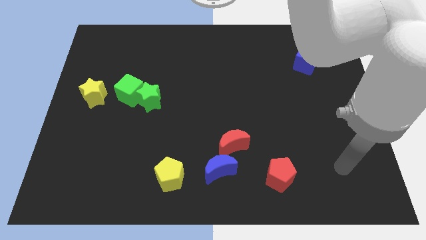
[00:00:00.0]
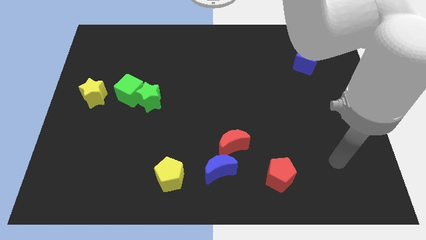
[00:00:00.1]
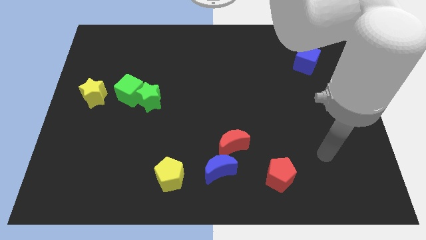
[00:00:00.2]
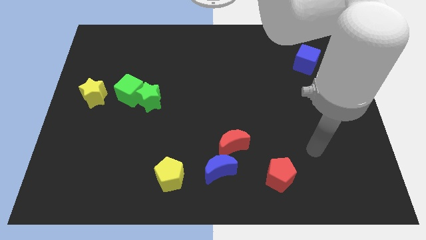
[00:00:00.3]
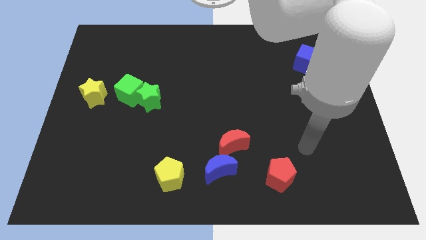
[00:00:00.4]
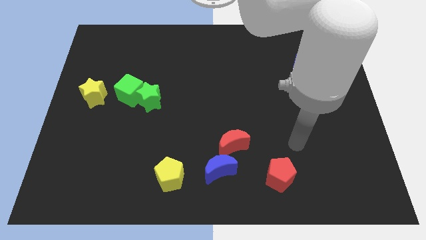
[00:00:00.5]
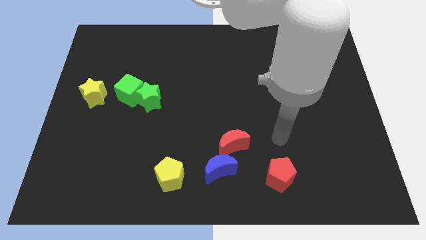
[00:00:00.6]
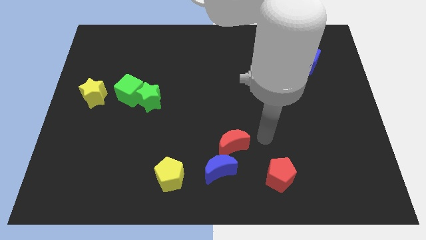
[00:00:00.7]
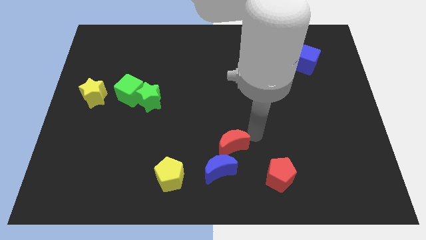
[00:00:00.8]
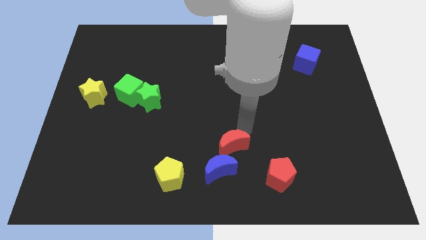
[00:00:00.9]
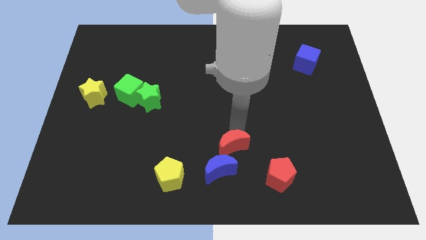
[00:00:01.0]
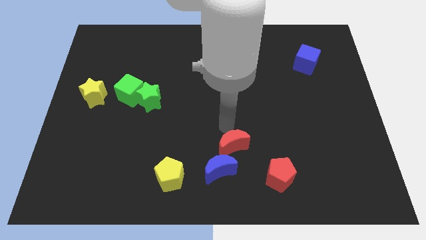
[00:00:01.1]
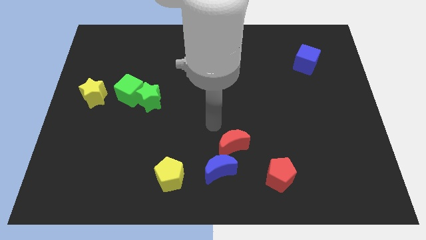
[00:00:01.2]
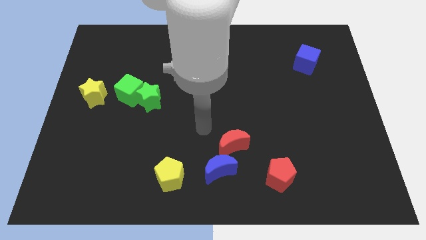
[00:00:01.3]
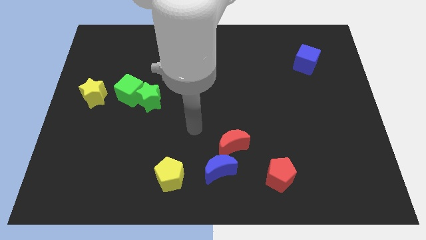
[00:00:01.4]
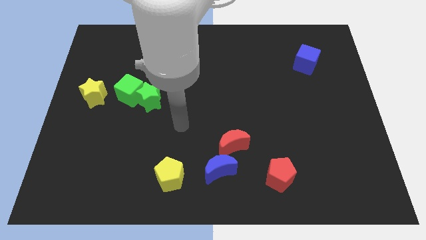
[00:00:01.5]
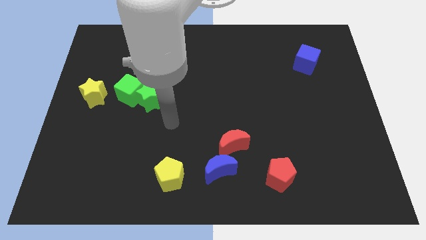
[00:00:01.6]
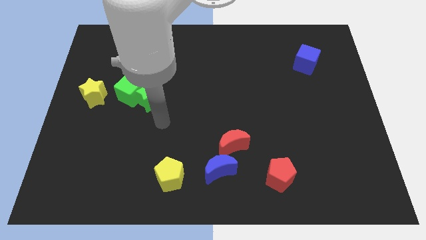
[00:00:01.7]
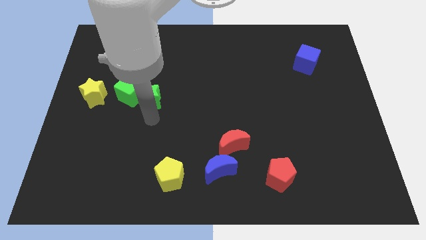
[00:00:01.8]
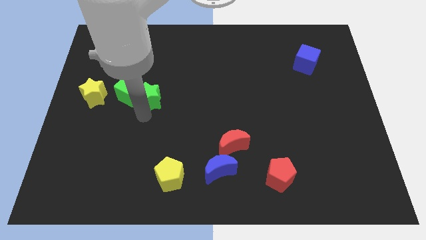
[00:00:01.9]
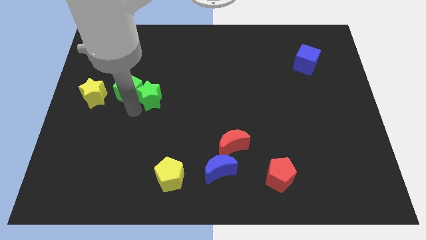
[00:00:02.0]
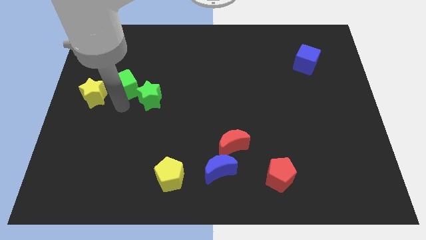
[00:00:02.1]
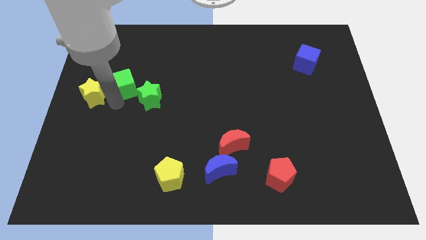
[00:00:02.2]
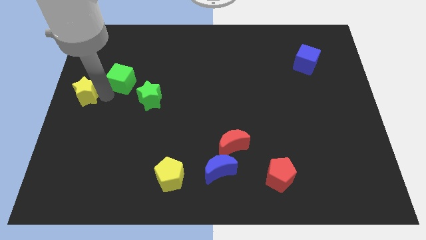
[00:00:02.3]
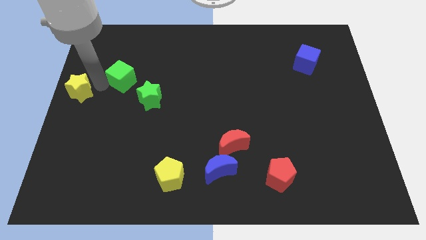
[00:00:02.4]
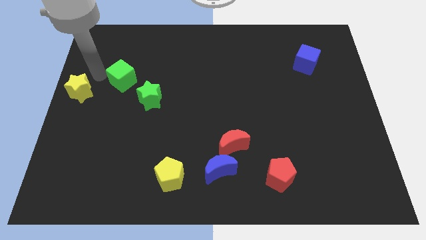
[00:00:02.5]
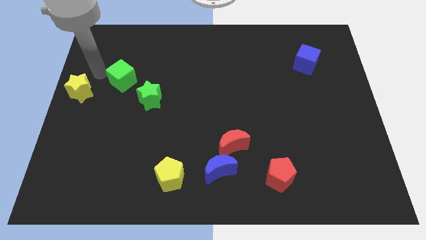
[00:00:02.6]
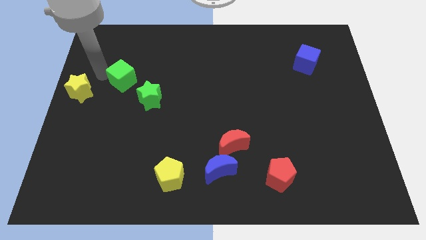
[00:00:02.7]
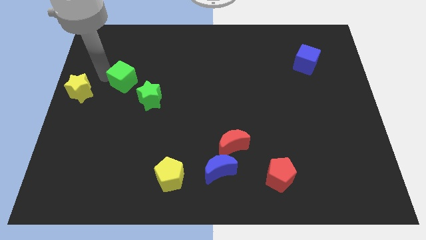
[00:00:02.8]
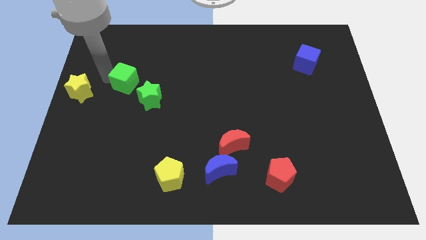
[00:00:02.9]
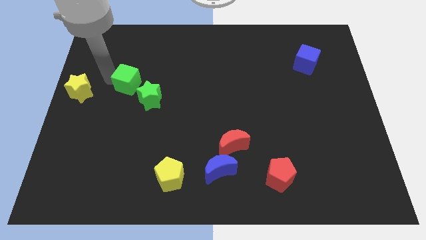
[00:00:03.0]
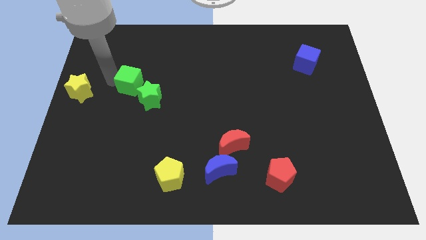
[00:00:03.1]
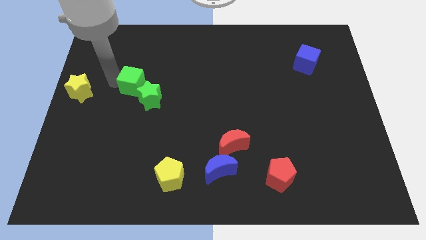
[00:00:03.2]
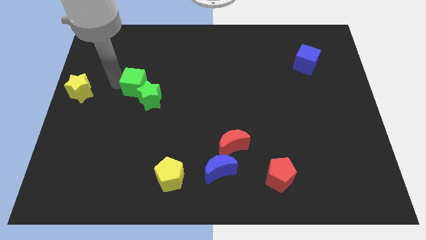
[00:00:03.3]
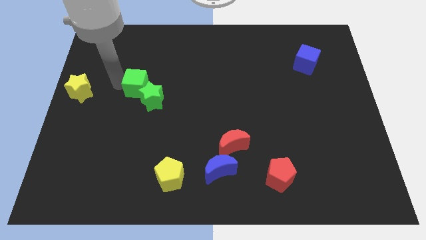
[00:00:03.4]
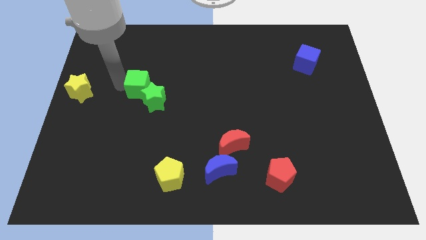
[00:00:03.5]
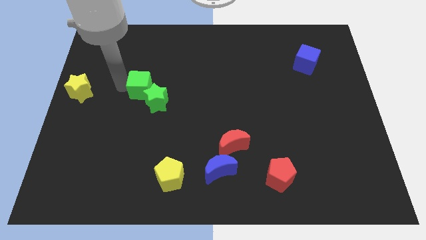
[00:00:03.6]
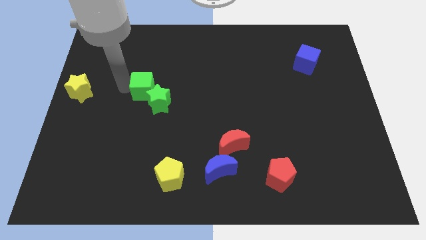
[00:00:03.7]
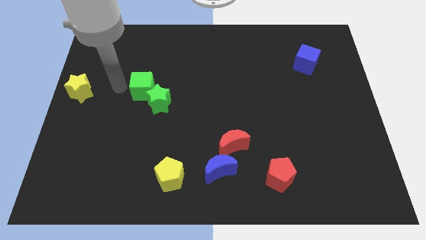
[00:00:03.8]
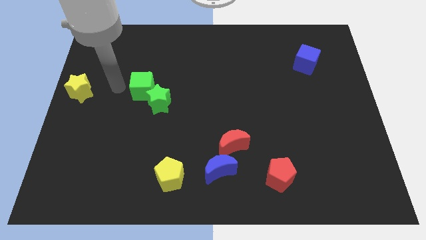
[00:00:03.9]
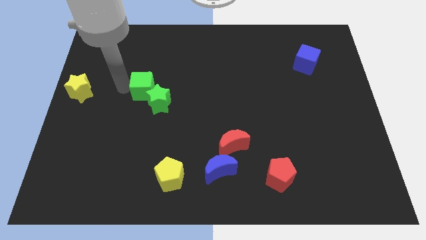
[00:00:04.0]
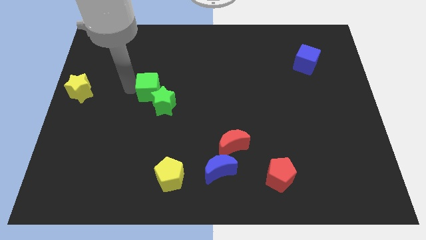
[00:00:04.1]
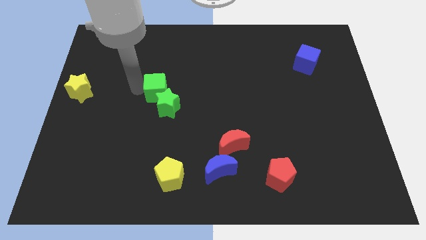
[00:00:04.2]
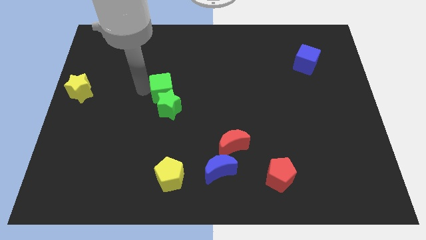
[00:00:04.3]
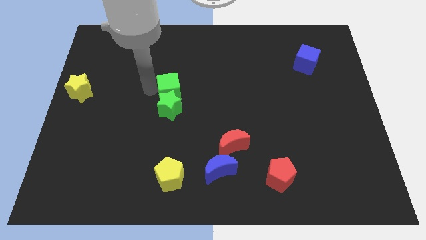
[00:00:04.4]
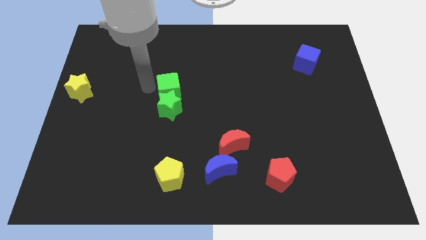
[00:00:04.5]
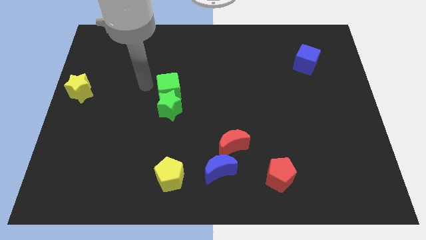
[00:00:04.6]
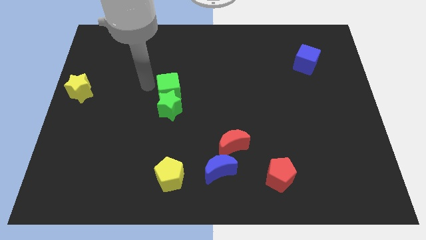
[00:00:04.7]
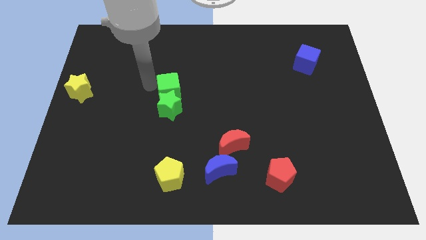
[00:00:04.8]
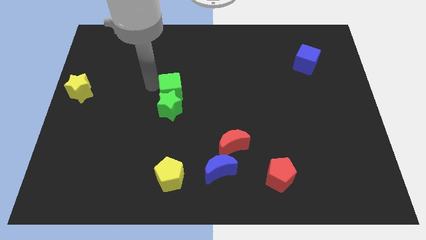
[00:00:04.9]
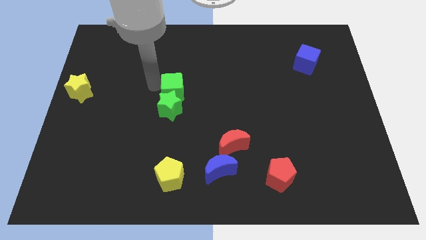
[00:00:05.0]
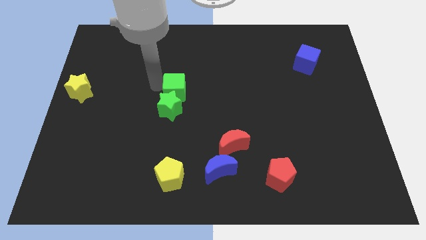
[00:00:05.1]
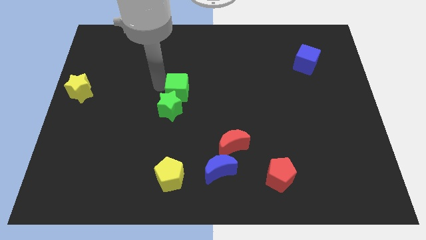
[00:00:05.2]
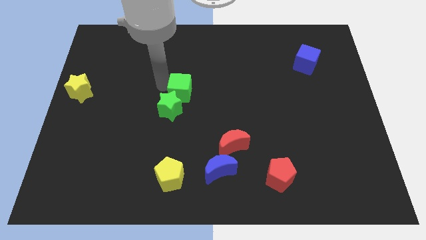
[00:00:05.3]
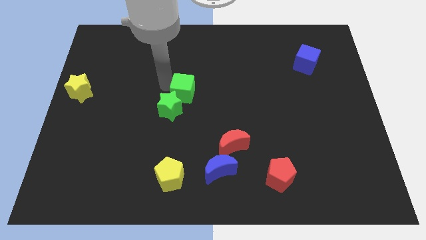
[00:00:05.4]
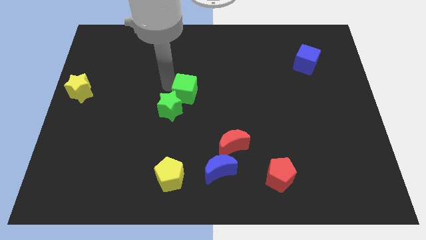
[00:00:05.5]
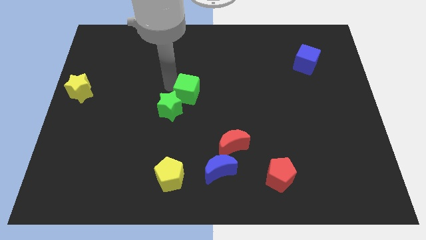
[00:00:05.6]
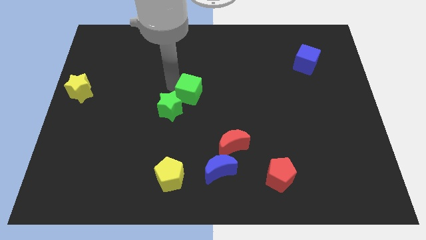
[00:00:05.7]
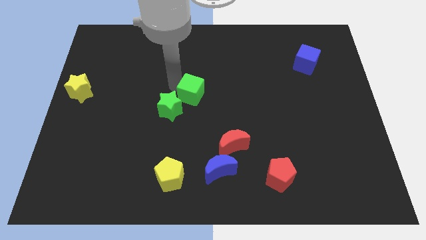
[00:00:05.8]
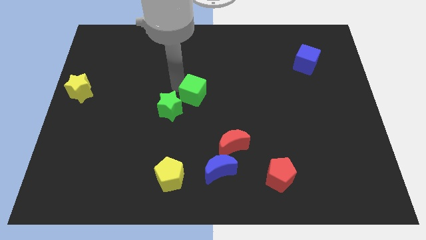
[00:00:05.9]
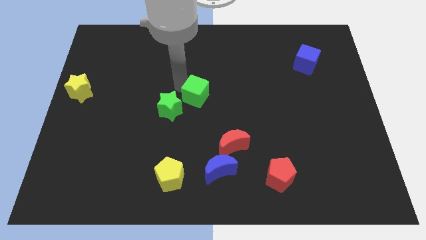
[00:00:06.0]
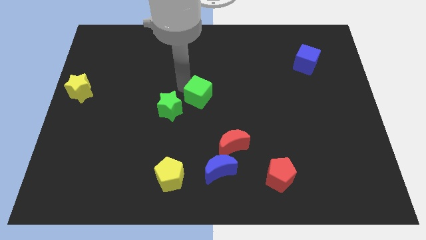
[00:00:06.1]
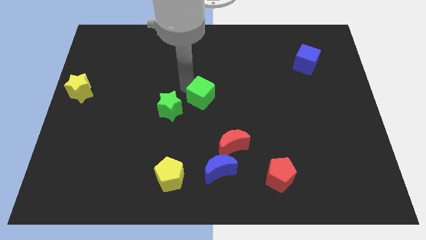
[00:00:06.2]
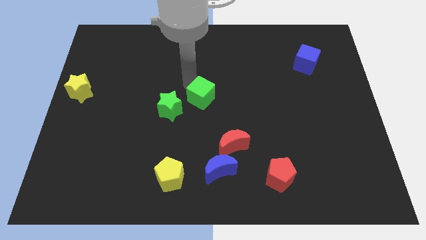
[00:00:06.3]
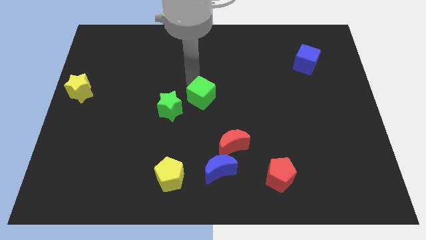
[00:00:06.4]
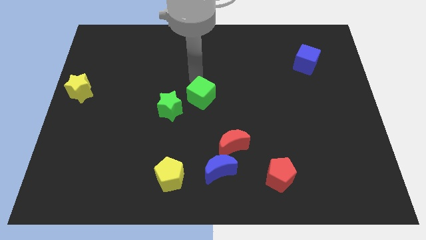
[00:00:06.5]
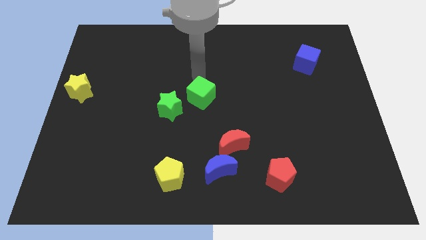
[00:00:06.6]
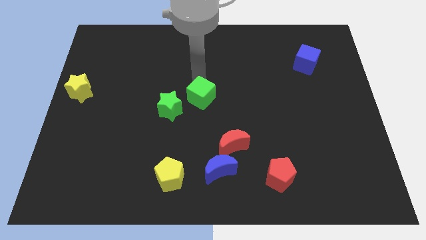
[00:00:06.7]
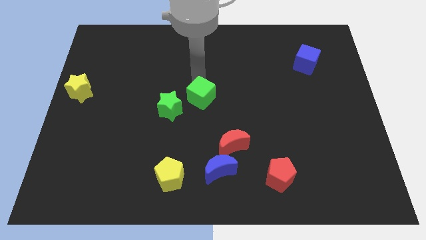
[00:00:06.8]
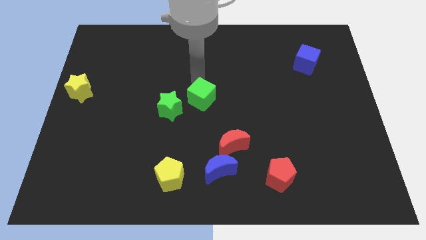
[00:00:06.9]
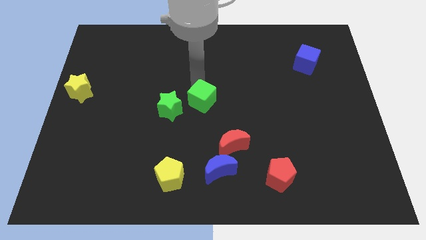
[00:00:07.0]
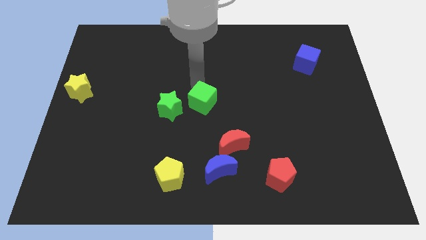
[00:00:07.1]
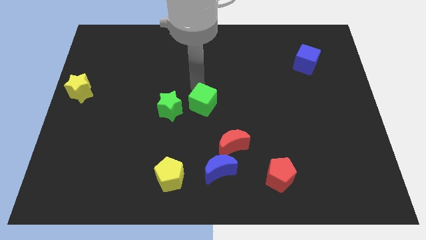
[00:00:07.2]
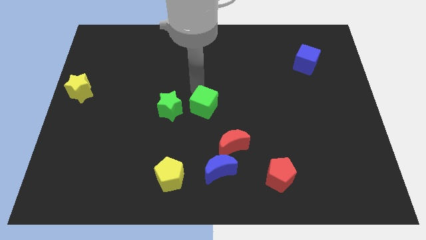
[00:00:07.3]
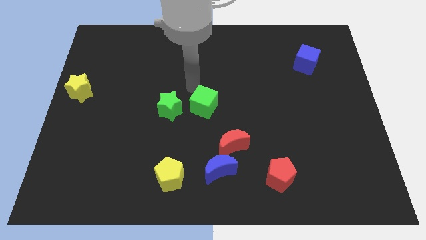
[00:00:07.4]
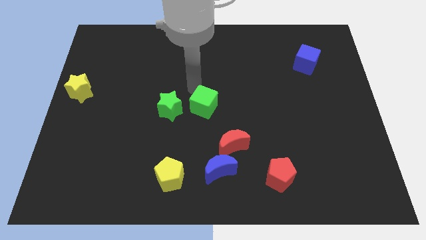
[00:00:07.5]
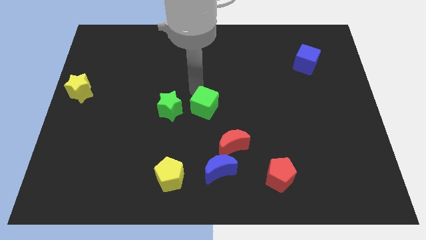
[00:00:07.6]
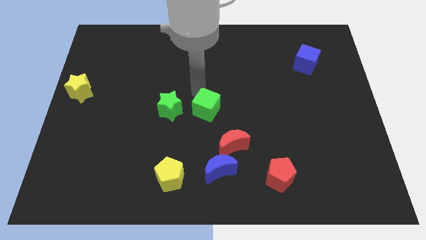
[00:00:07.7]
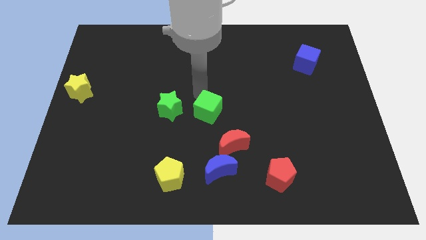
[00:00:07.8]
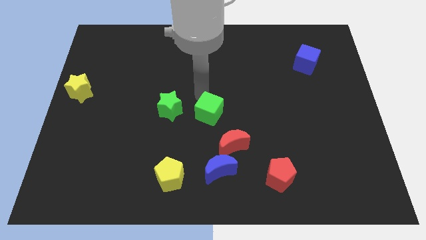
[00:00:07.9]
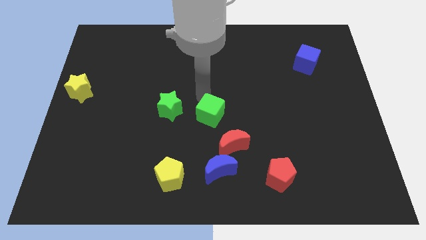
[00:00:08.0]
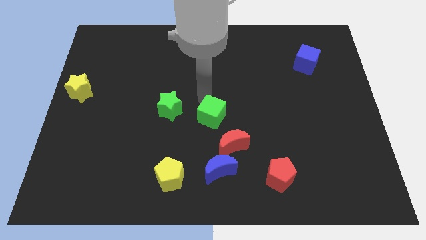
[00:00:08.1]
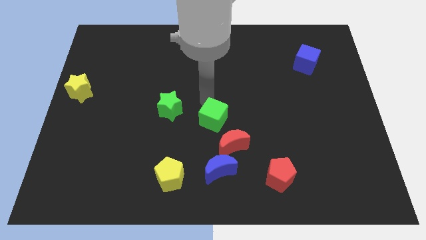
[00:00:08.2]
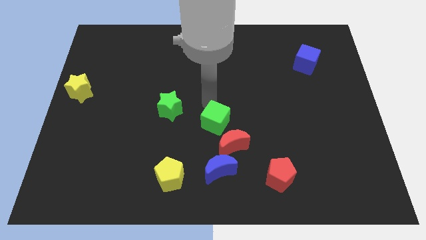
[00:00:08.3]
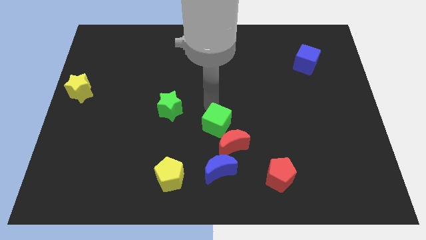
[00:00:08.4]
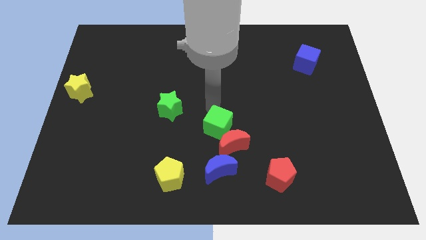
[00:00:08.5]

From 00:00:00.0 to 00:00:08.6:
move the green cube to the red moon
